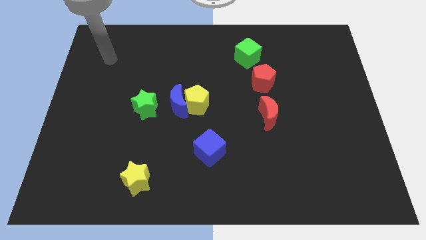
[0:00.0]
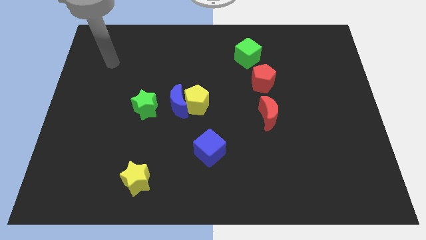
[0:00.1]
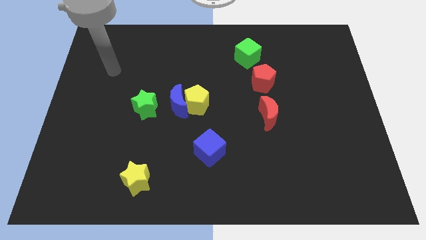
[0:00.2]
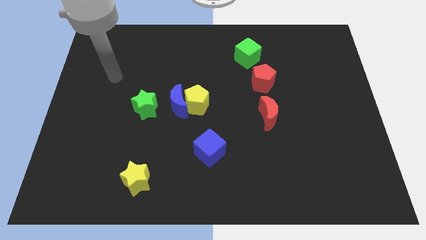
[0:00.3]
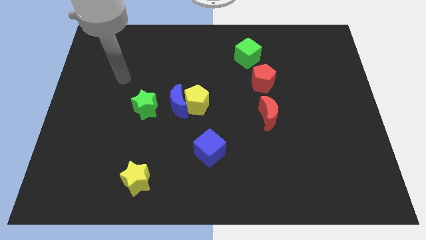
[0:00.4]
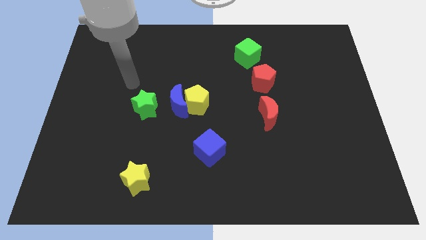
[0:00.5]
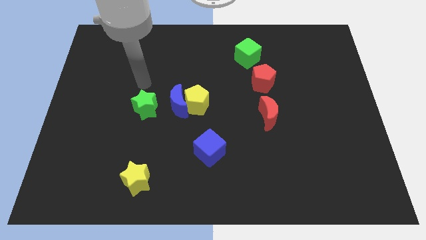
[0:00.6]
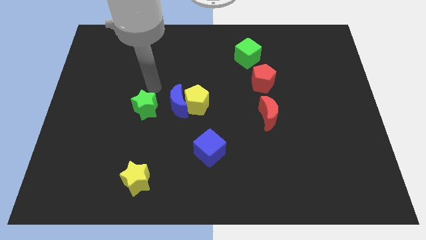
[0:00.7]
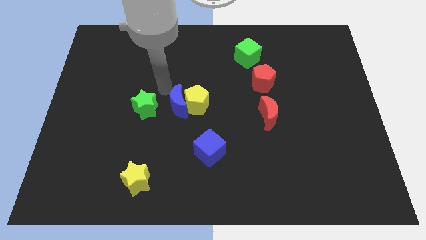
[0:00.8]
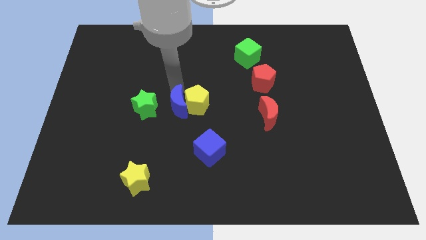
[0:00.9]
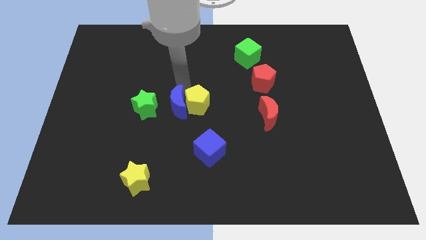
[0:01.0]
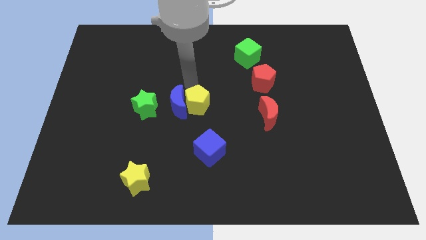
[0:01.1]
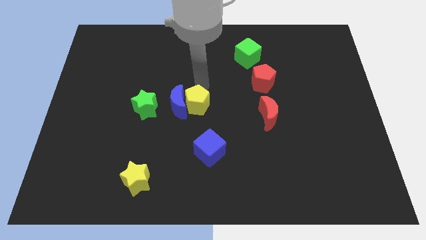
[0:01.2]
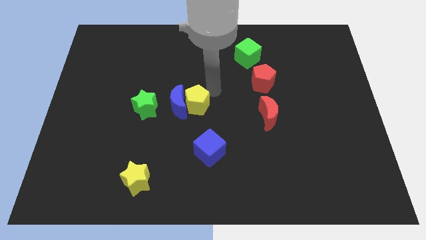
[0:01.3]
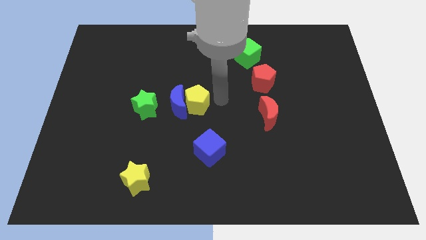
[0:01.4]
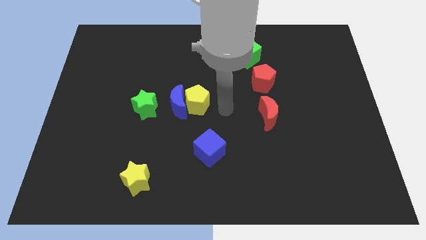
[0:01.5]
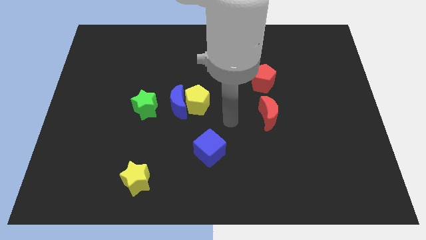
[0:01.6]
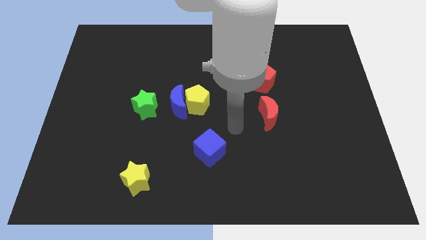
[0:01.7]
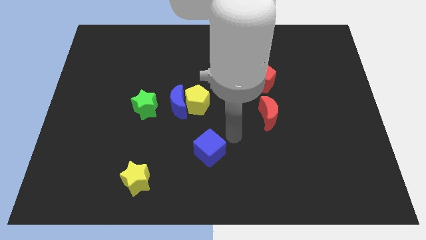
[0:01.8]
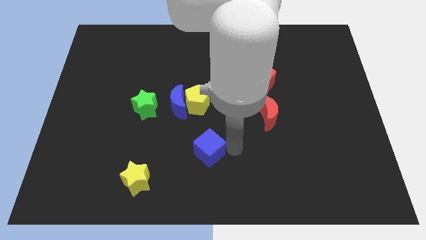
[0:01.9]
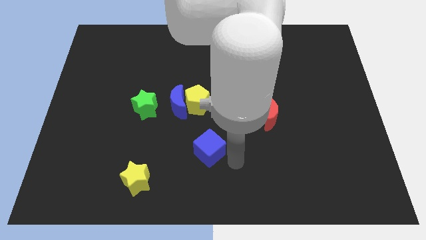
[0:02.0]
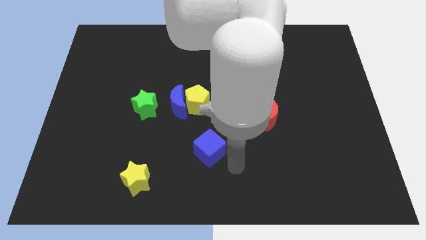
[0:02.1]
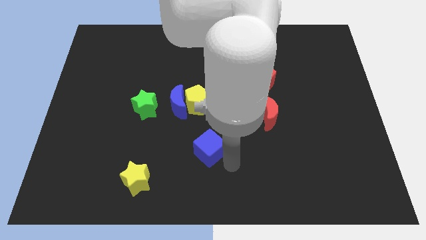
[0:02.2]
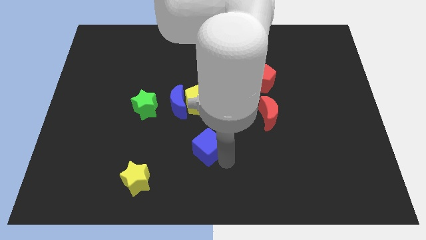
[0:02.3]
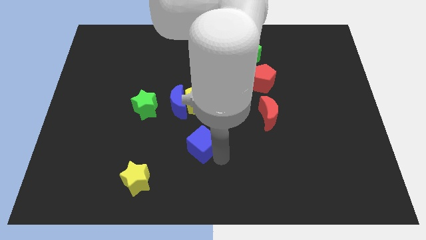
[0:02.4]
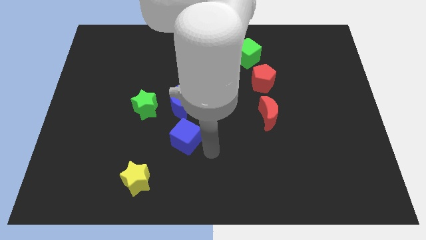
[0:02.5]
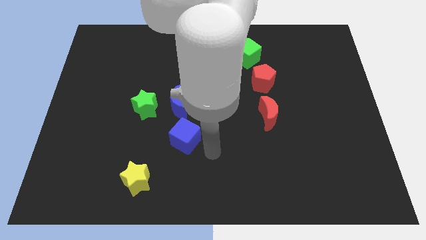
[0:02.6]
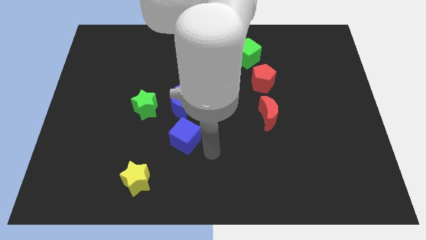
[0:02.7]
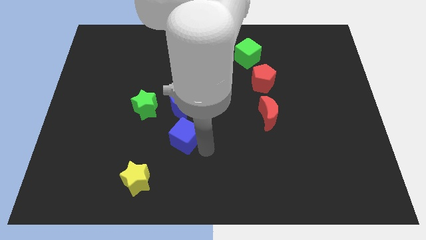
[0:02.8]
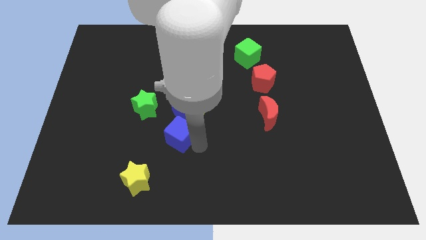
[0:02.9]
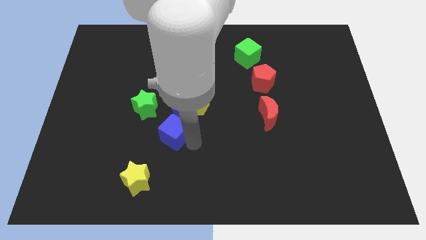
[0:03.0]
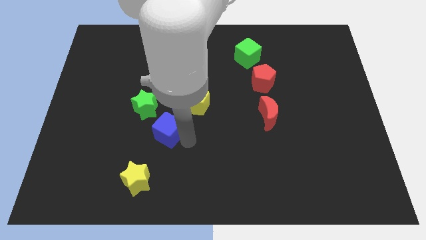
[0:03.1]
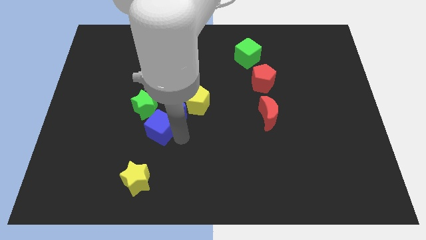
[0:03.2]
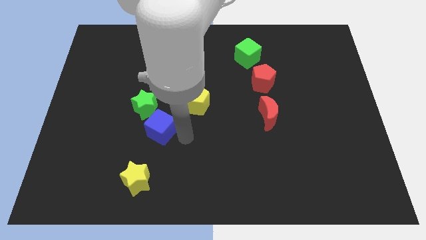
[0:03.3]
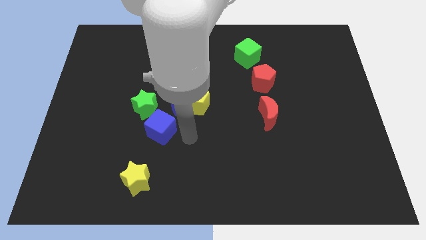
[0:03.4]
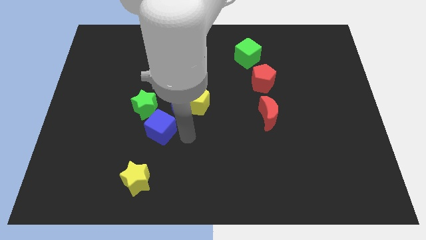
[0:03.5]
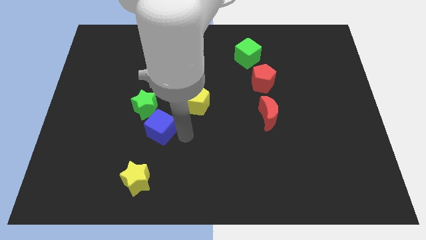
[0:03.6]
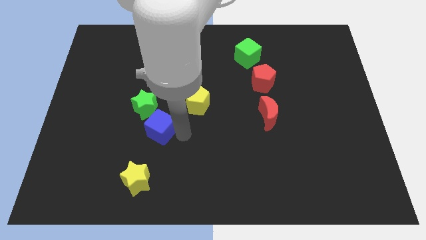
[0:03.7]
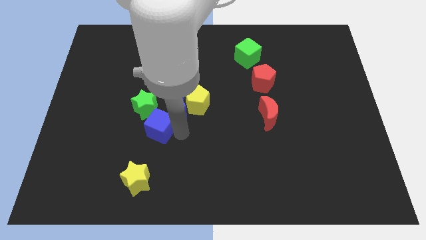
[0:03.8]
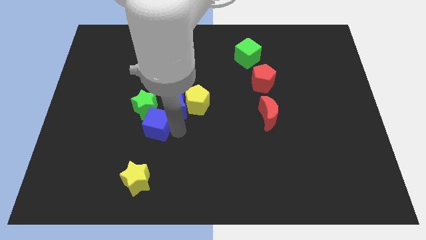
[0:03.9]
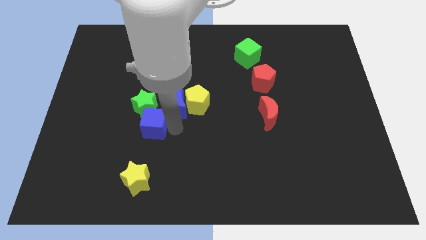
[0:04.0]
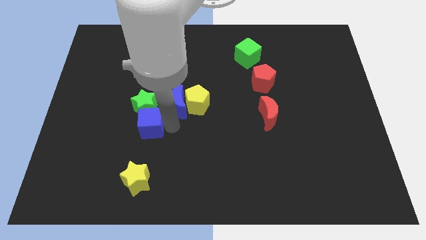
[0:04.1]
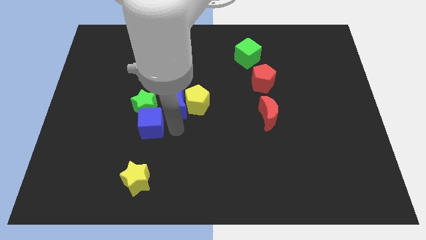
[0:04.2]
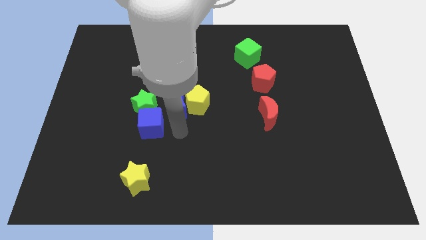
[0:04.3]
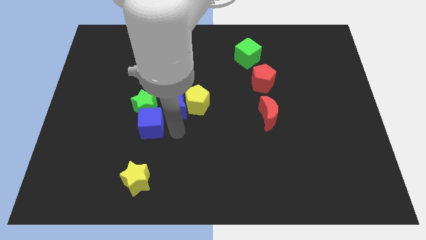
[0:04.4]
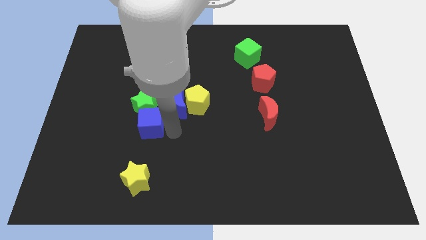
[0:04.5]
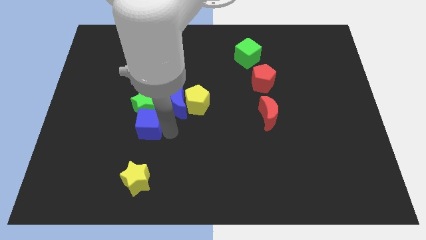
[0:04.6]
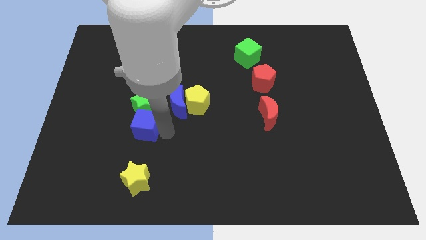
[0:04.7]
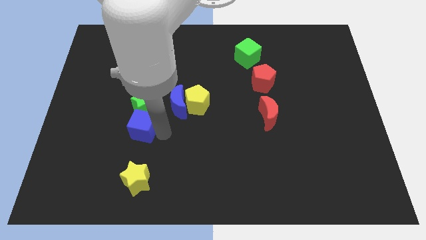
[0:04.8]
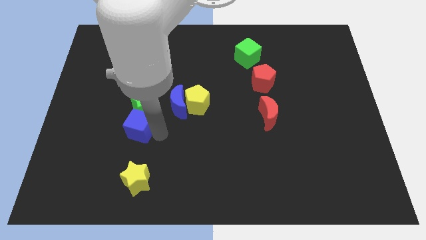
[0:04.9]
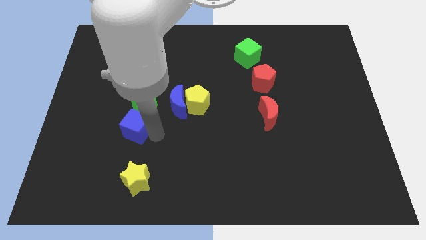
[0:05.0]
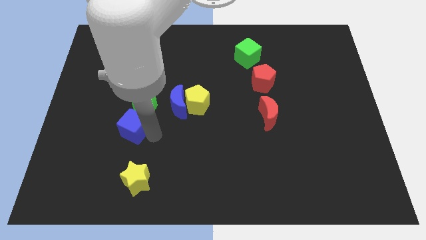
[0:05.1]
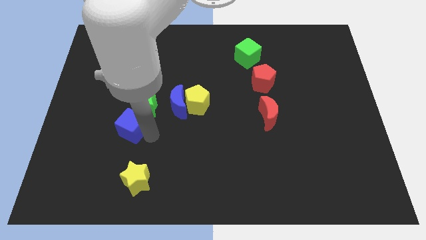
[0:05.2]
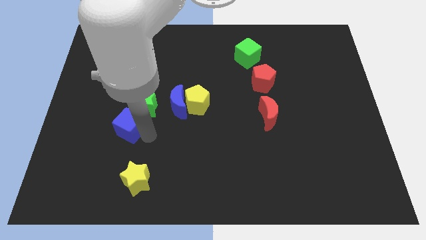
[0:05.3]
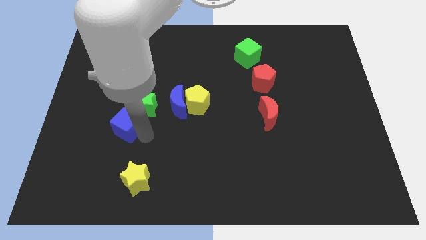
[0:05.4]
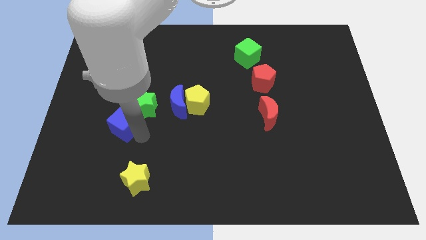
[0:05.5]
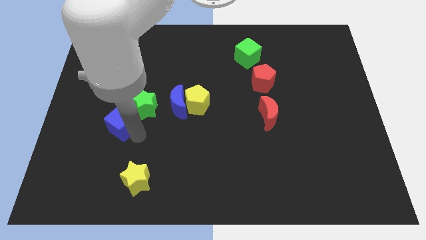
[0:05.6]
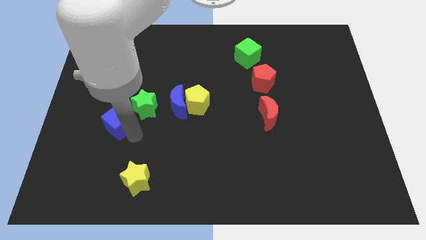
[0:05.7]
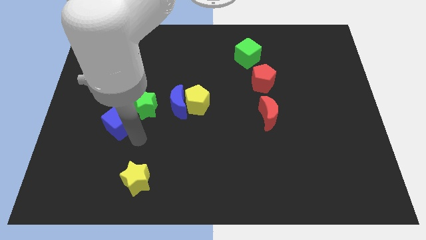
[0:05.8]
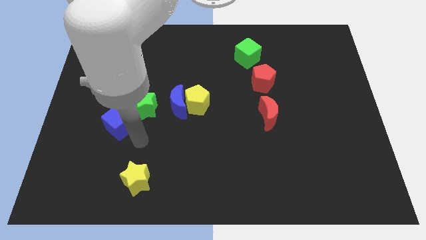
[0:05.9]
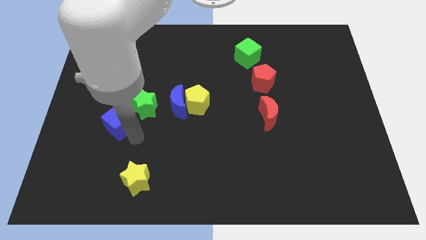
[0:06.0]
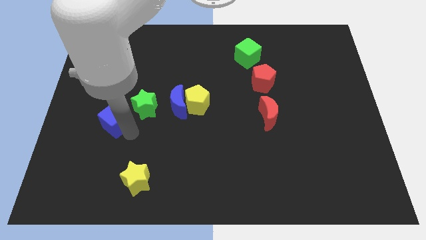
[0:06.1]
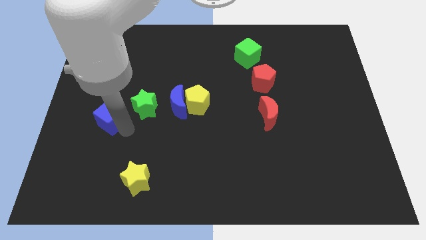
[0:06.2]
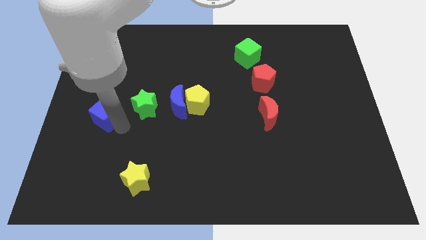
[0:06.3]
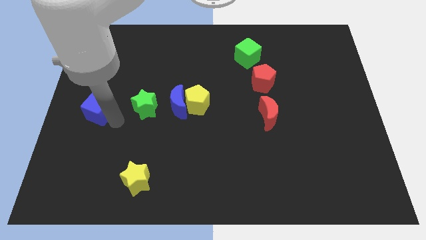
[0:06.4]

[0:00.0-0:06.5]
push the blue cube to the left side

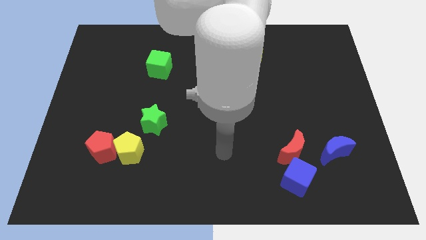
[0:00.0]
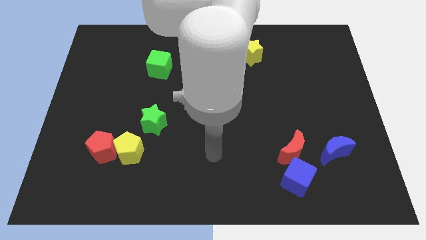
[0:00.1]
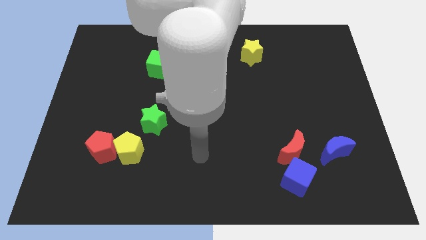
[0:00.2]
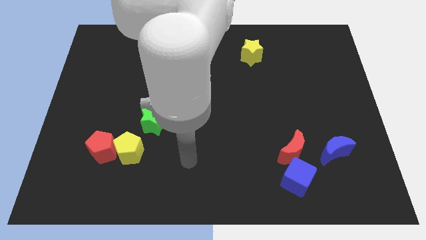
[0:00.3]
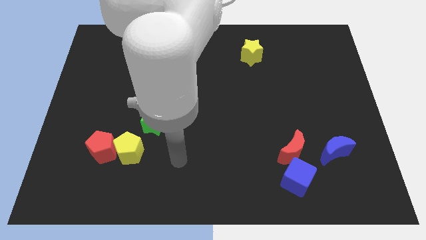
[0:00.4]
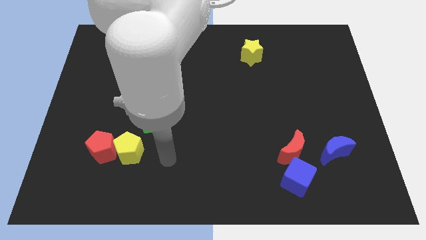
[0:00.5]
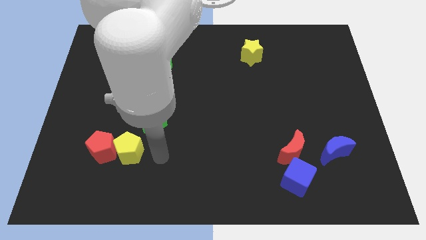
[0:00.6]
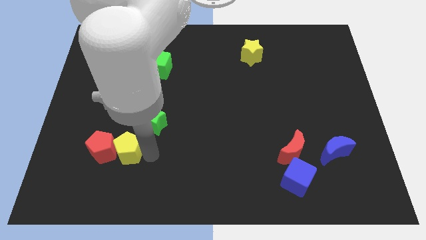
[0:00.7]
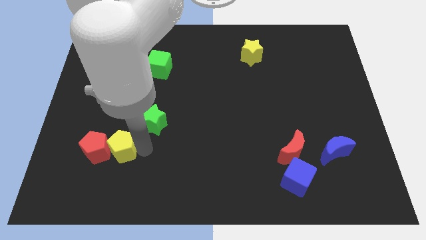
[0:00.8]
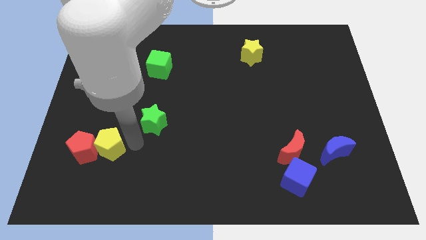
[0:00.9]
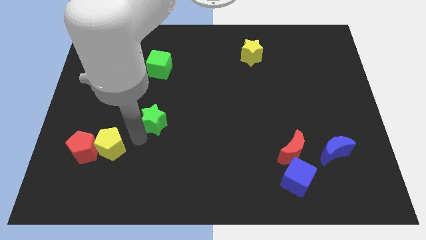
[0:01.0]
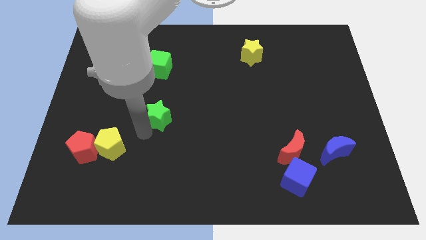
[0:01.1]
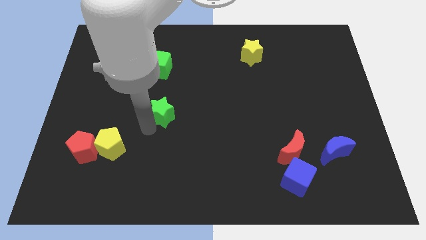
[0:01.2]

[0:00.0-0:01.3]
push the green star to the center
